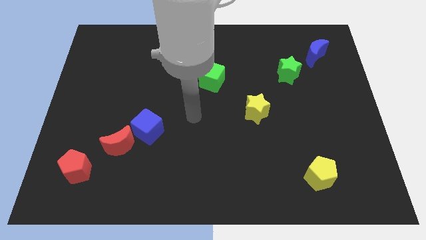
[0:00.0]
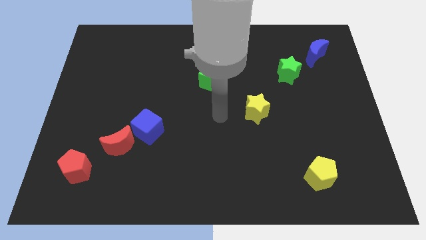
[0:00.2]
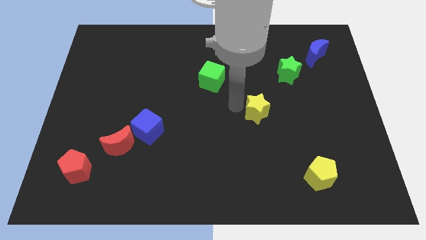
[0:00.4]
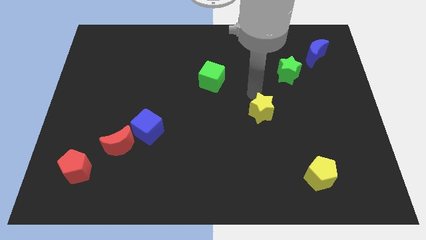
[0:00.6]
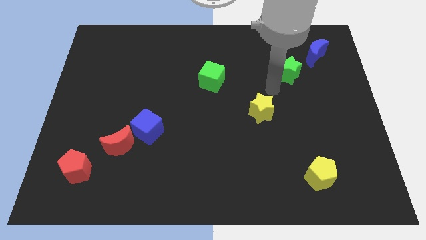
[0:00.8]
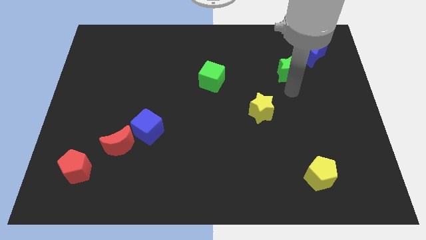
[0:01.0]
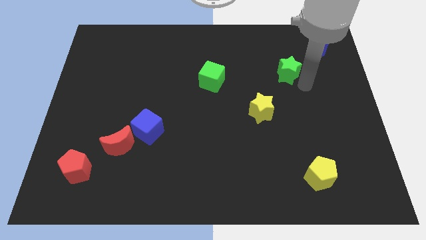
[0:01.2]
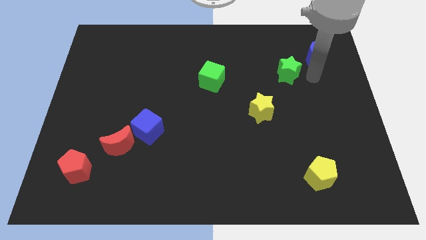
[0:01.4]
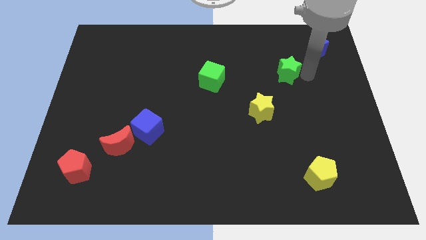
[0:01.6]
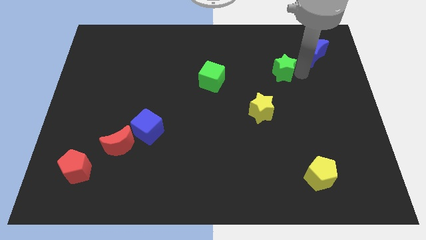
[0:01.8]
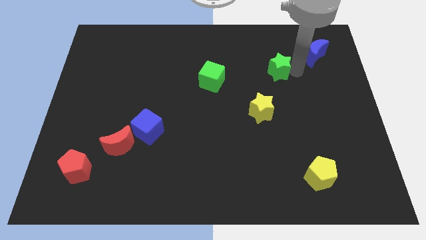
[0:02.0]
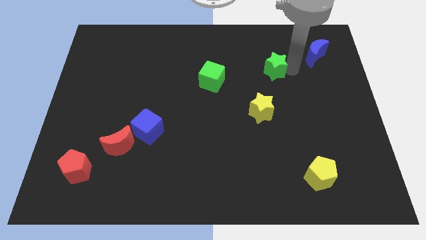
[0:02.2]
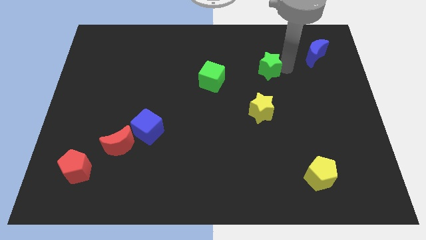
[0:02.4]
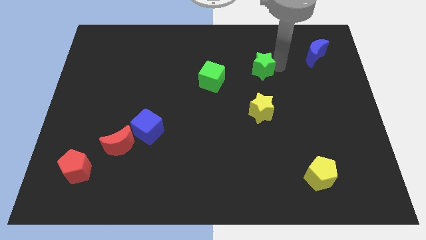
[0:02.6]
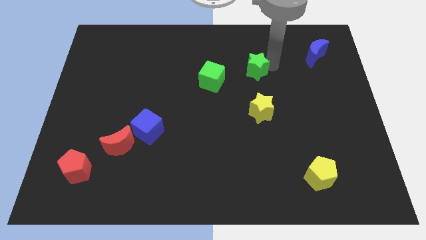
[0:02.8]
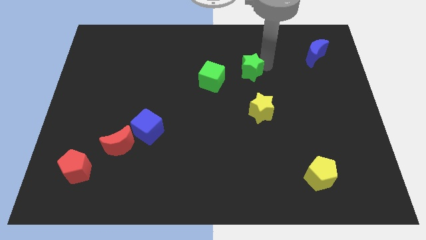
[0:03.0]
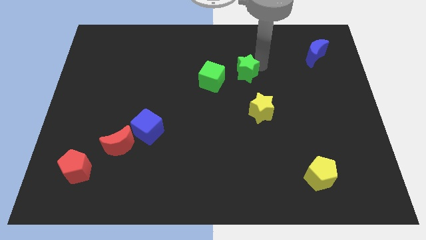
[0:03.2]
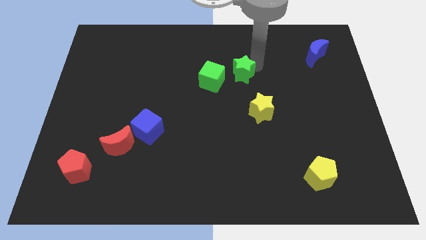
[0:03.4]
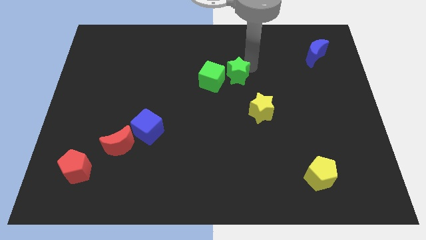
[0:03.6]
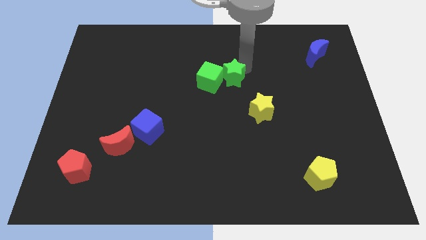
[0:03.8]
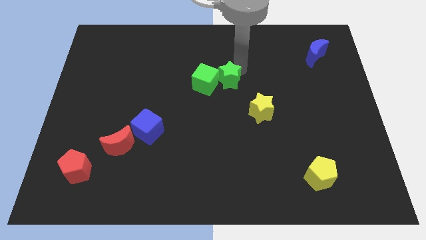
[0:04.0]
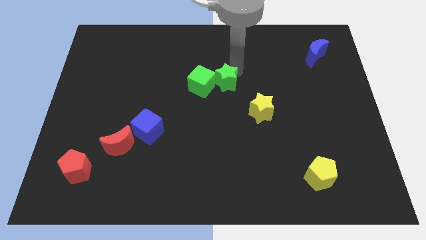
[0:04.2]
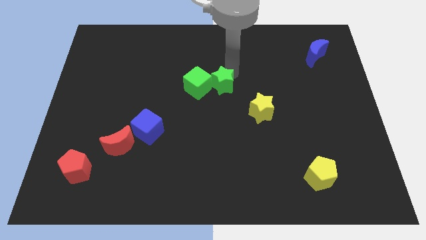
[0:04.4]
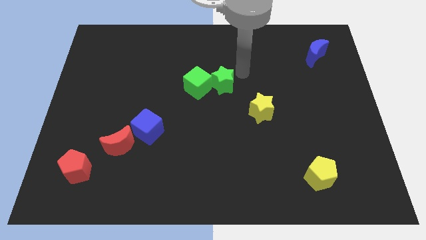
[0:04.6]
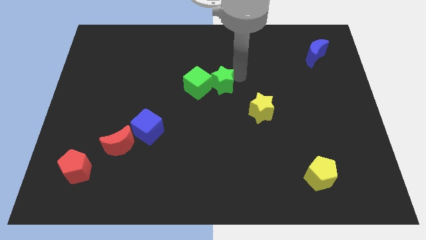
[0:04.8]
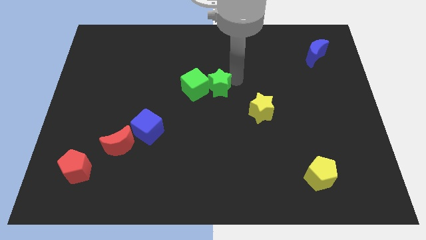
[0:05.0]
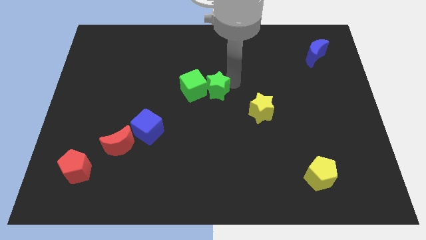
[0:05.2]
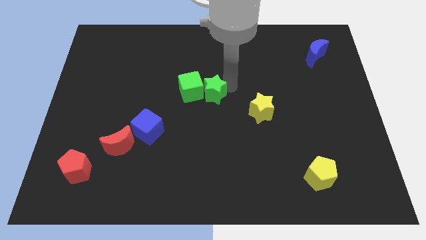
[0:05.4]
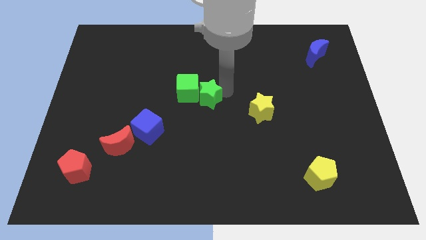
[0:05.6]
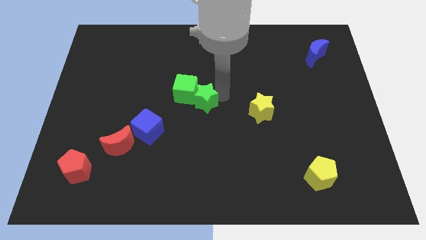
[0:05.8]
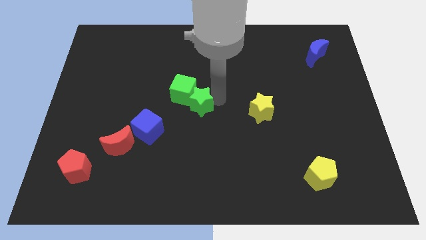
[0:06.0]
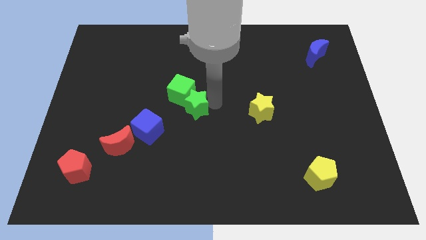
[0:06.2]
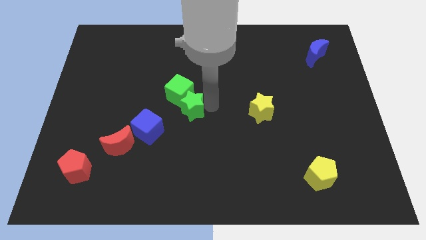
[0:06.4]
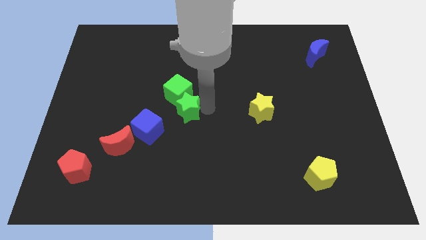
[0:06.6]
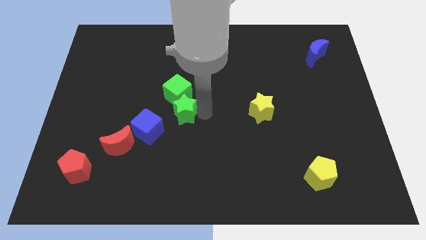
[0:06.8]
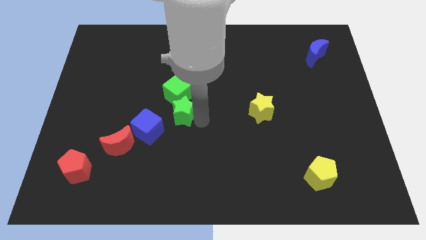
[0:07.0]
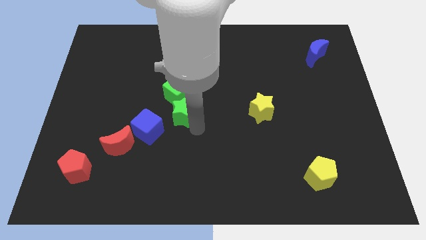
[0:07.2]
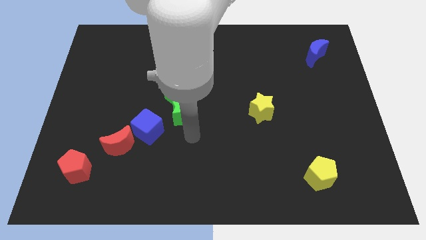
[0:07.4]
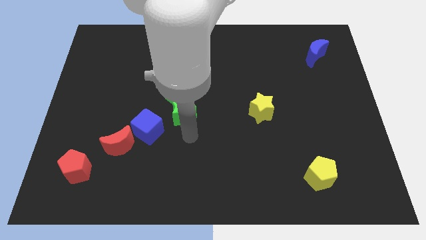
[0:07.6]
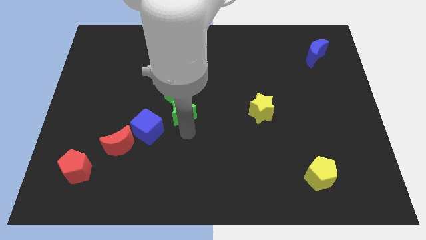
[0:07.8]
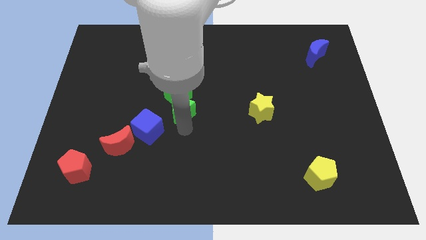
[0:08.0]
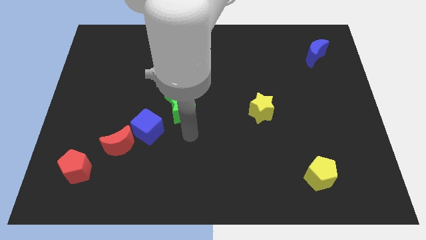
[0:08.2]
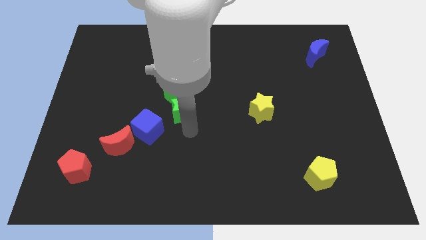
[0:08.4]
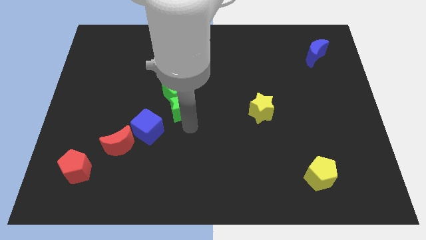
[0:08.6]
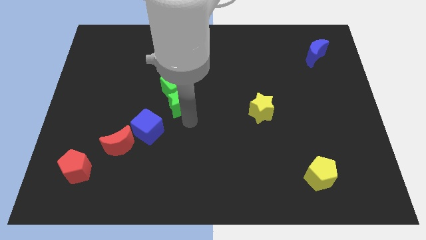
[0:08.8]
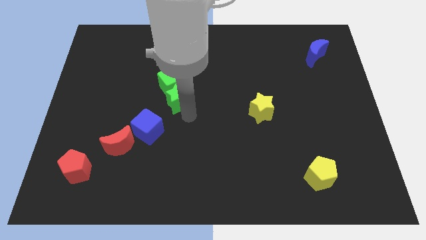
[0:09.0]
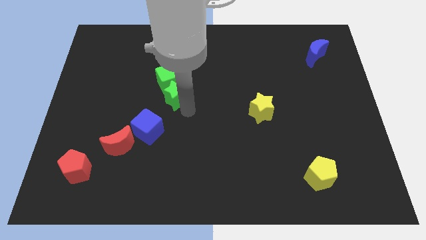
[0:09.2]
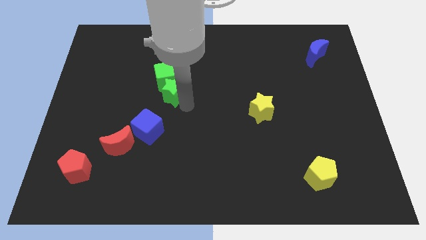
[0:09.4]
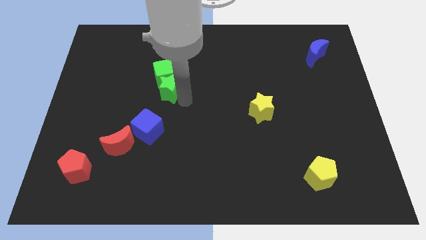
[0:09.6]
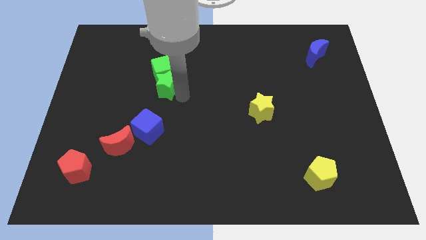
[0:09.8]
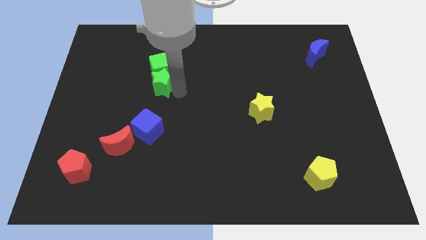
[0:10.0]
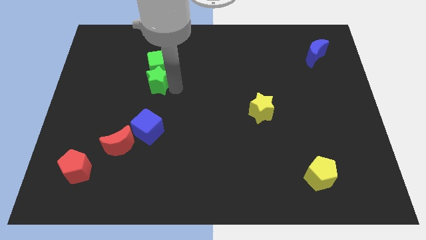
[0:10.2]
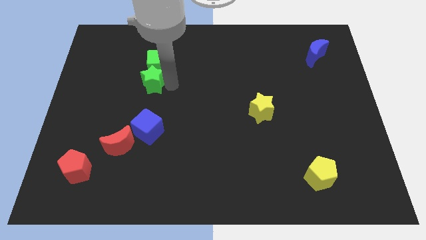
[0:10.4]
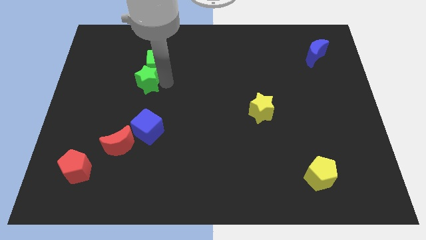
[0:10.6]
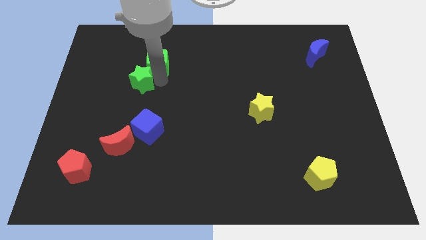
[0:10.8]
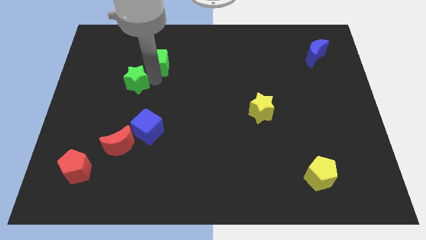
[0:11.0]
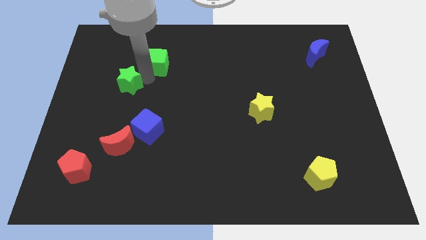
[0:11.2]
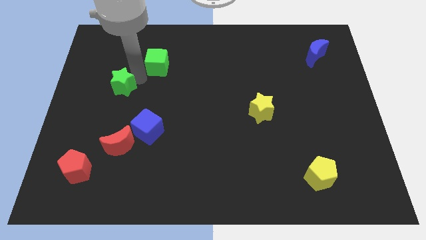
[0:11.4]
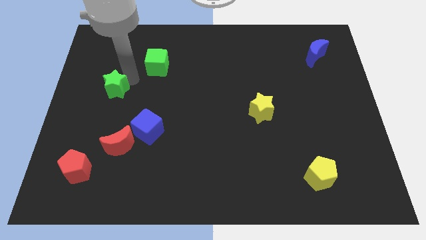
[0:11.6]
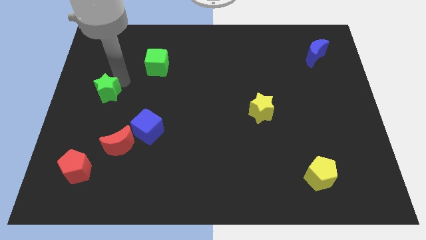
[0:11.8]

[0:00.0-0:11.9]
slide the green star to the center left

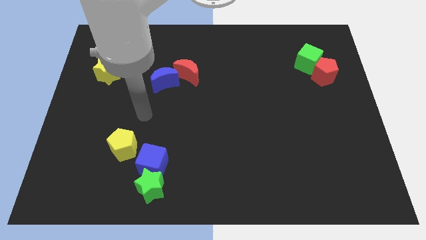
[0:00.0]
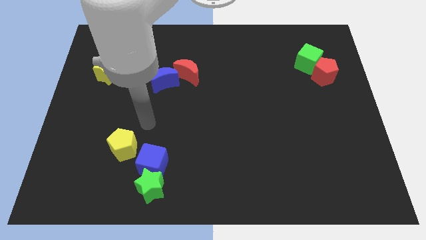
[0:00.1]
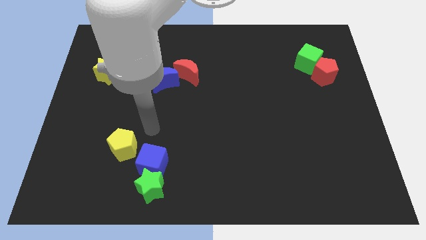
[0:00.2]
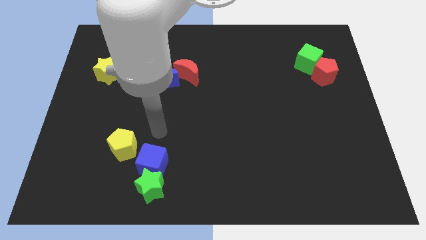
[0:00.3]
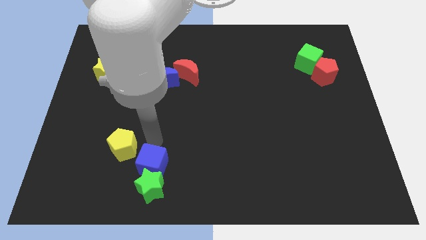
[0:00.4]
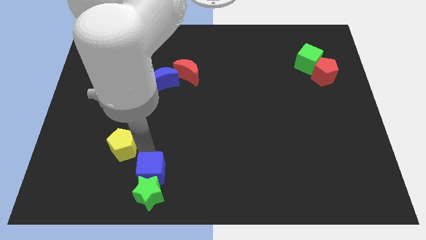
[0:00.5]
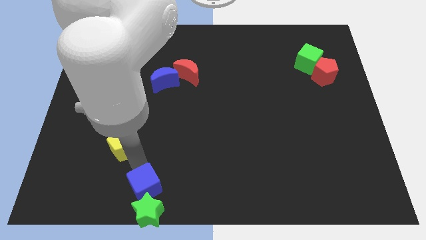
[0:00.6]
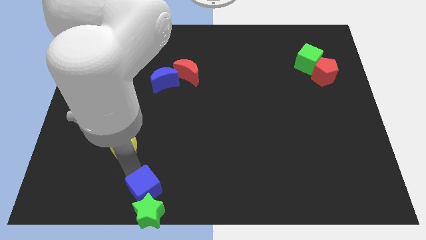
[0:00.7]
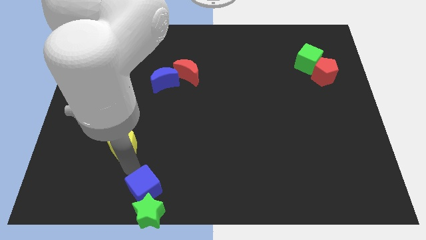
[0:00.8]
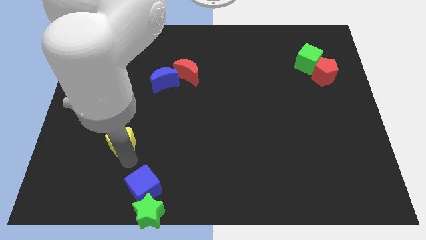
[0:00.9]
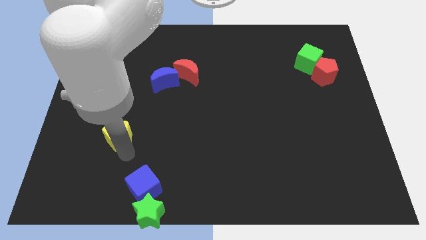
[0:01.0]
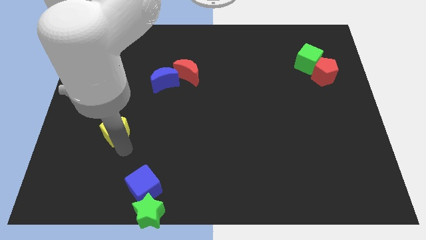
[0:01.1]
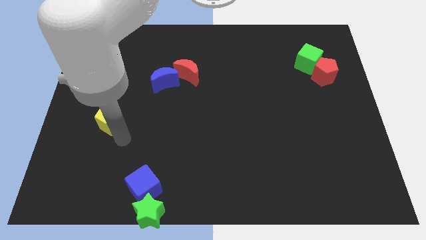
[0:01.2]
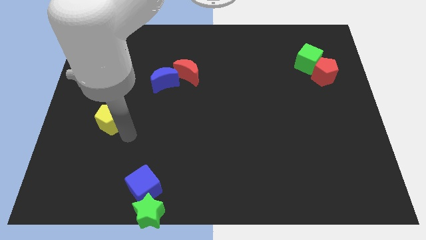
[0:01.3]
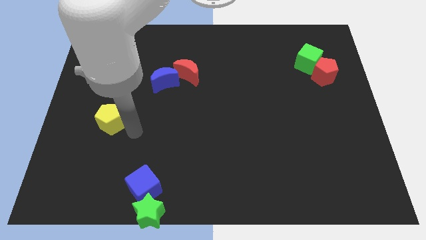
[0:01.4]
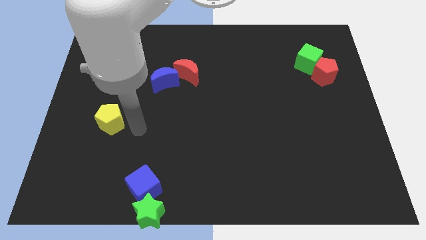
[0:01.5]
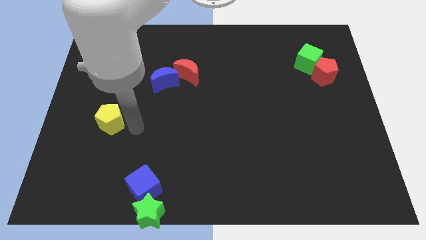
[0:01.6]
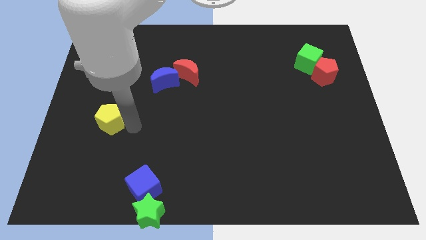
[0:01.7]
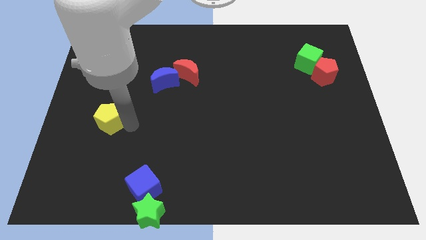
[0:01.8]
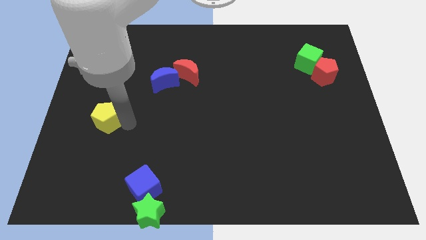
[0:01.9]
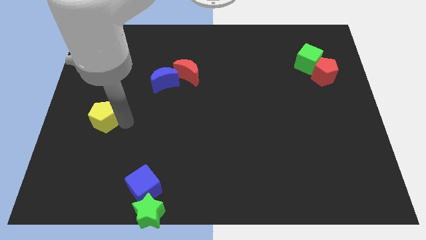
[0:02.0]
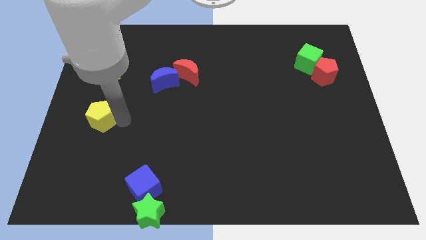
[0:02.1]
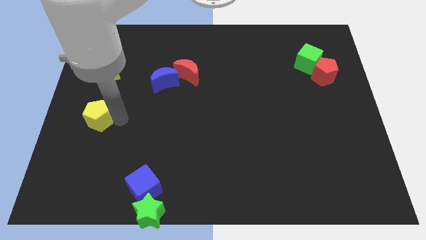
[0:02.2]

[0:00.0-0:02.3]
put the yellow pentagon to the left side of the board
